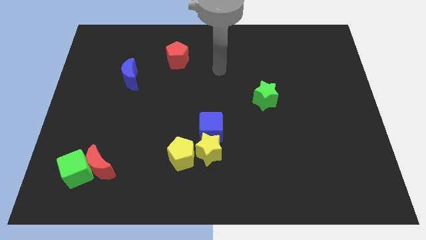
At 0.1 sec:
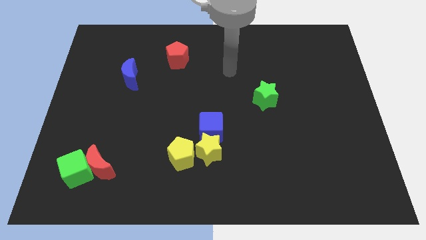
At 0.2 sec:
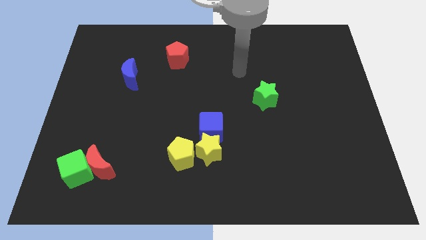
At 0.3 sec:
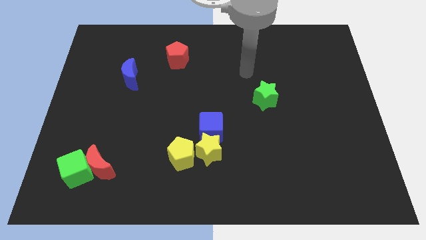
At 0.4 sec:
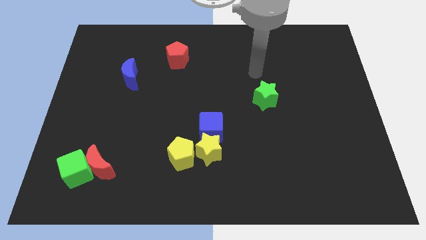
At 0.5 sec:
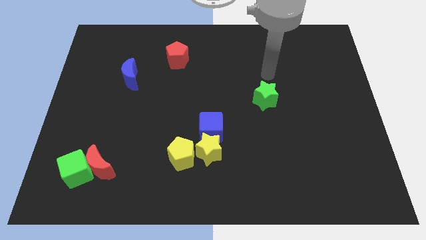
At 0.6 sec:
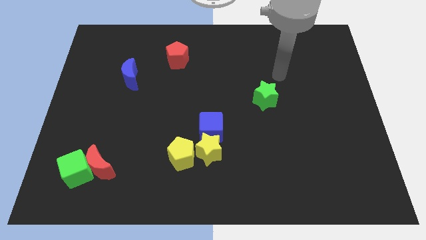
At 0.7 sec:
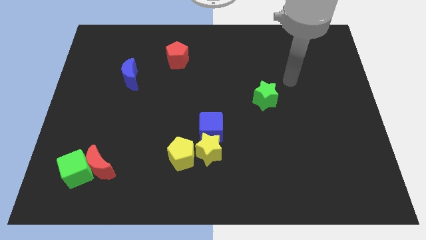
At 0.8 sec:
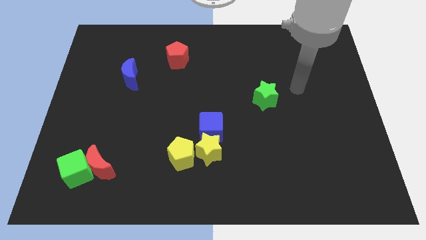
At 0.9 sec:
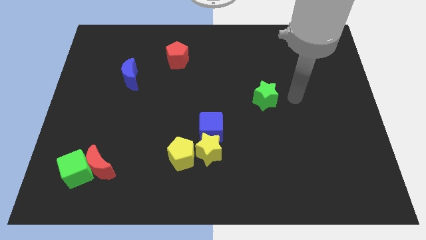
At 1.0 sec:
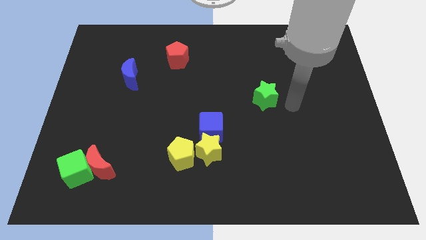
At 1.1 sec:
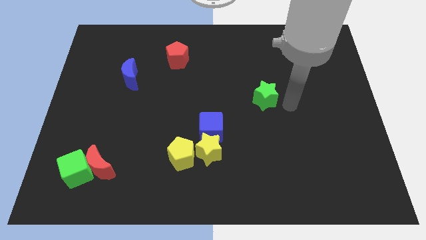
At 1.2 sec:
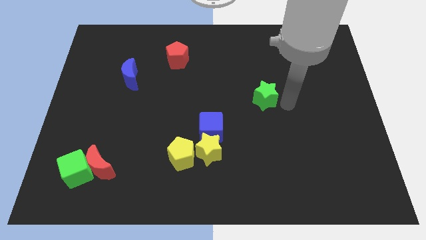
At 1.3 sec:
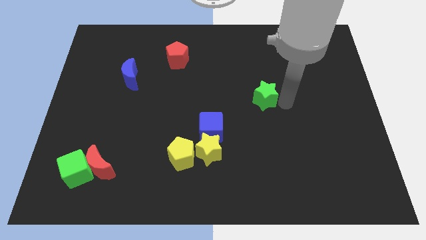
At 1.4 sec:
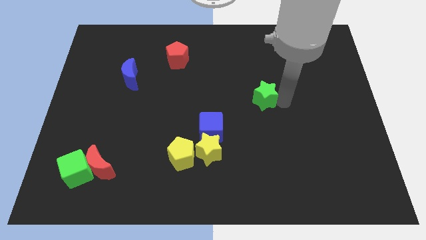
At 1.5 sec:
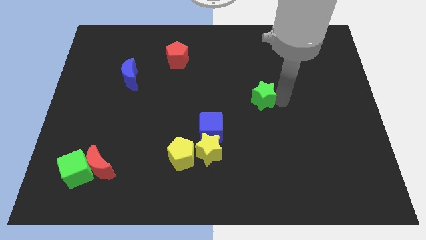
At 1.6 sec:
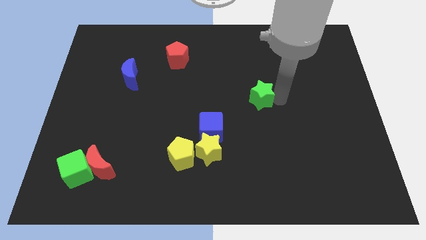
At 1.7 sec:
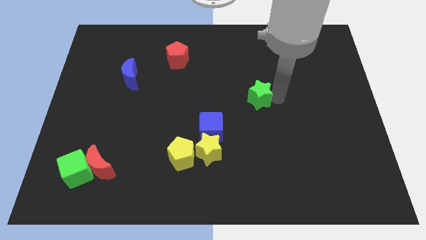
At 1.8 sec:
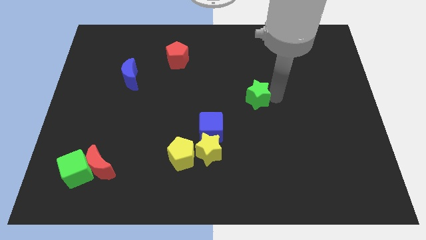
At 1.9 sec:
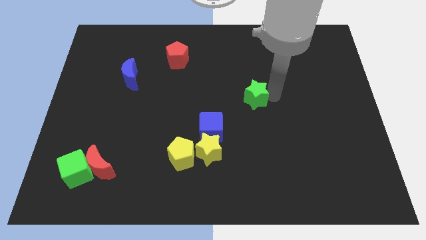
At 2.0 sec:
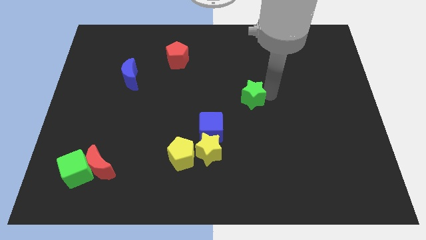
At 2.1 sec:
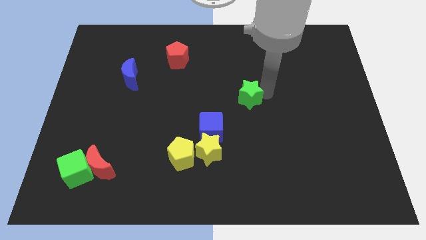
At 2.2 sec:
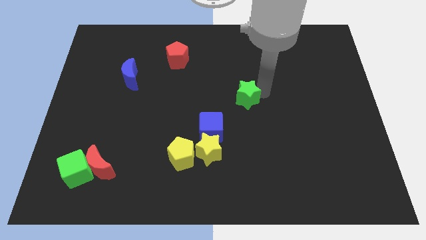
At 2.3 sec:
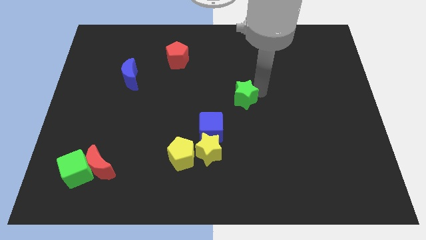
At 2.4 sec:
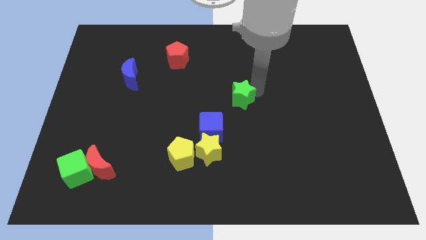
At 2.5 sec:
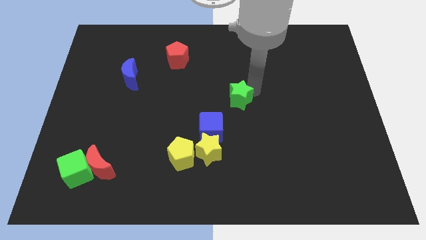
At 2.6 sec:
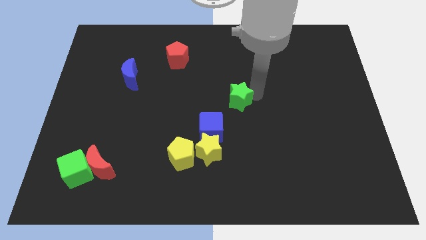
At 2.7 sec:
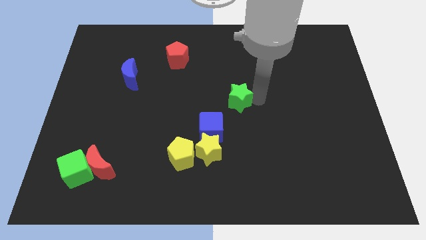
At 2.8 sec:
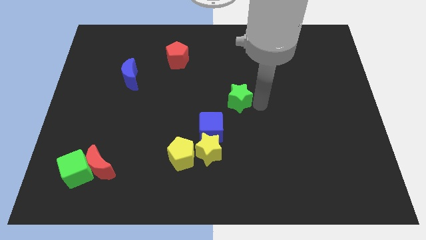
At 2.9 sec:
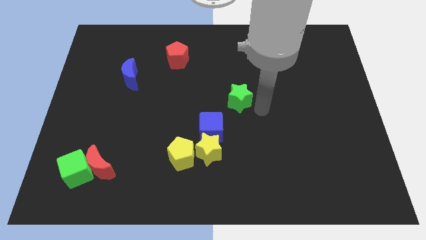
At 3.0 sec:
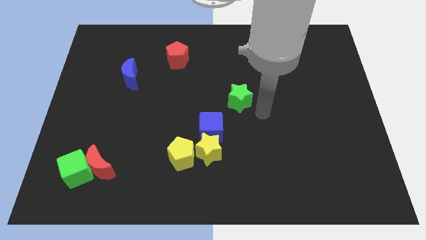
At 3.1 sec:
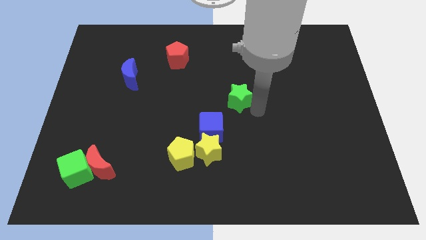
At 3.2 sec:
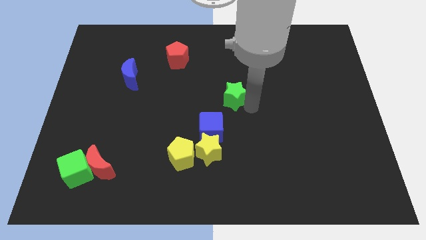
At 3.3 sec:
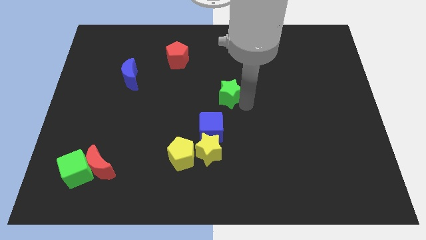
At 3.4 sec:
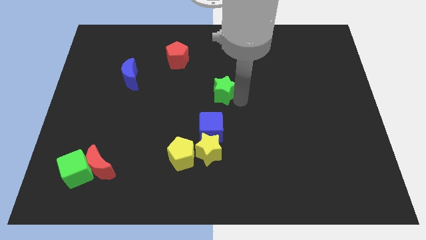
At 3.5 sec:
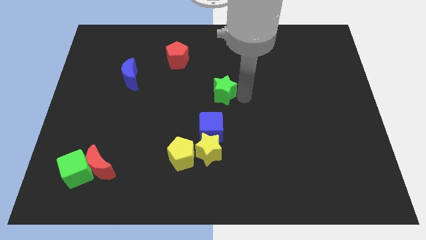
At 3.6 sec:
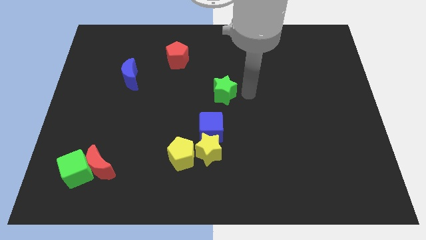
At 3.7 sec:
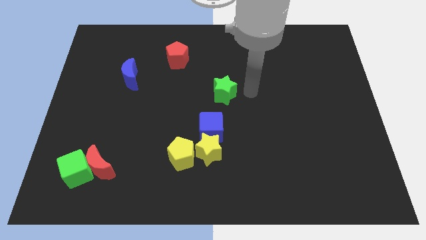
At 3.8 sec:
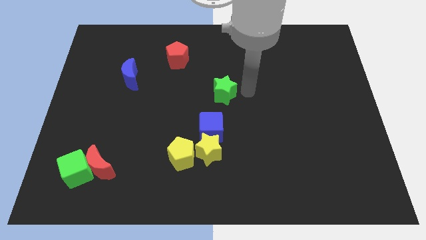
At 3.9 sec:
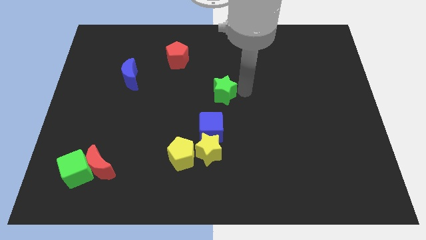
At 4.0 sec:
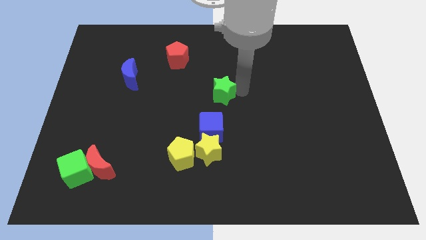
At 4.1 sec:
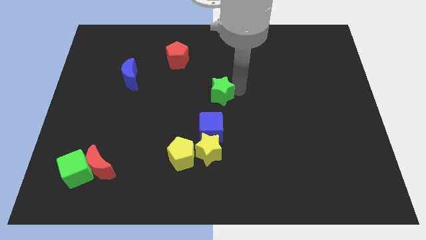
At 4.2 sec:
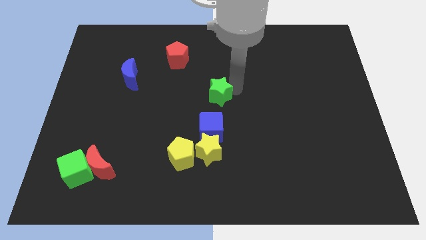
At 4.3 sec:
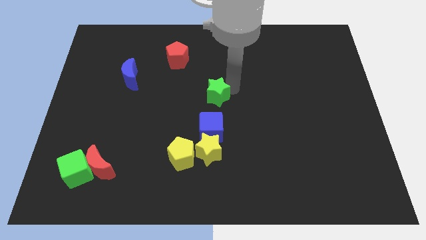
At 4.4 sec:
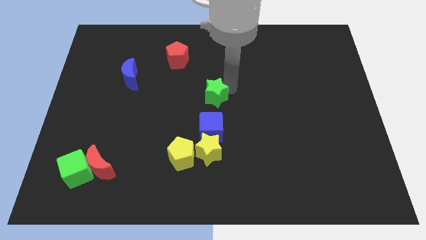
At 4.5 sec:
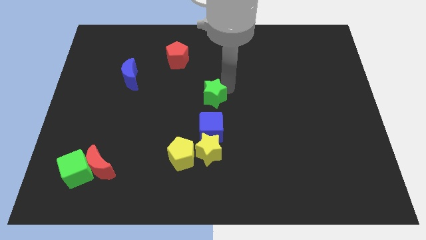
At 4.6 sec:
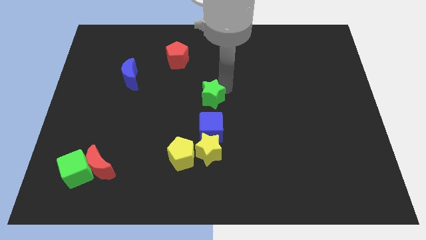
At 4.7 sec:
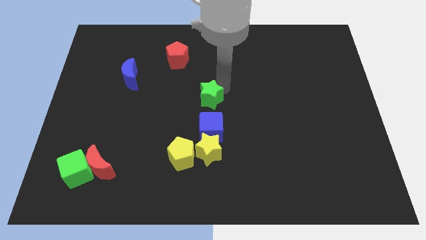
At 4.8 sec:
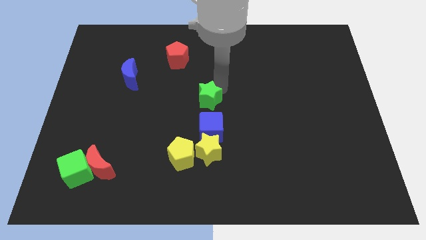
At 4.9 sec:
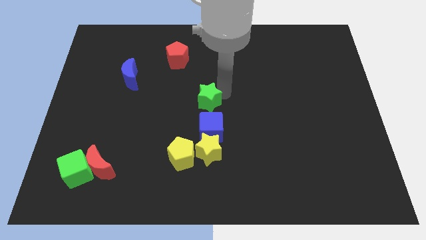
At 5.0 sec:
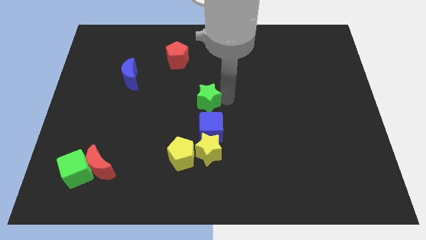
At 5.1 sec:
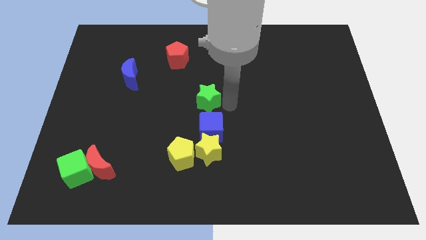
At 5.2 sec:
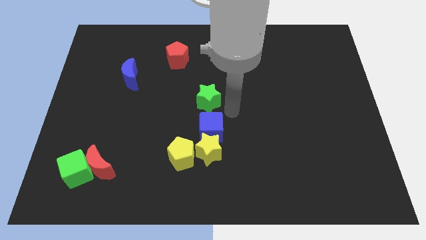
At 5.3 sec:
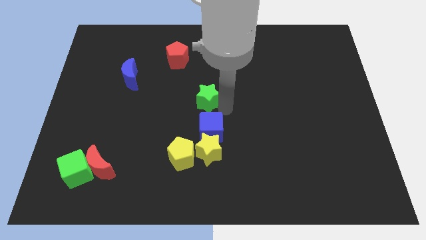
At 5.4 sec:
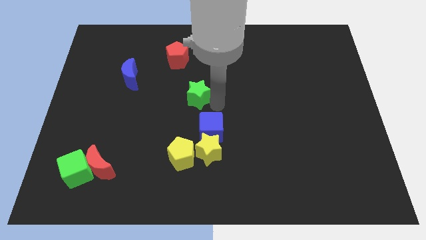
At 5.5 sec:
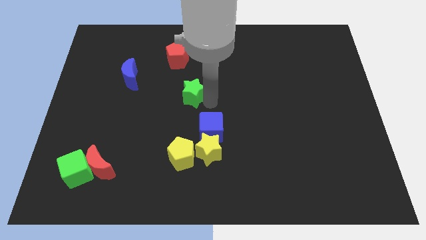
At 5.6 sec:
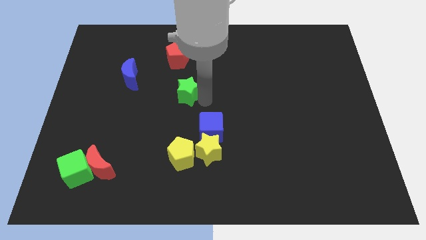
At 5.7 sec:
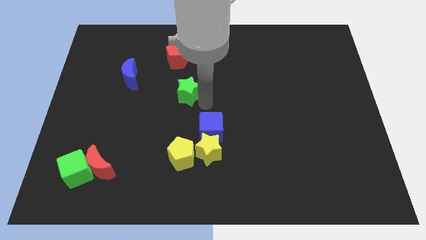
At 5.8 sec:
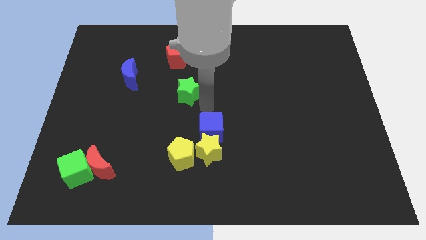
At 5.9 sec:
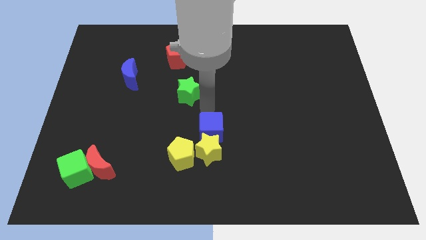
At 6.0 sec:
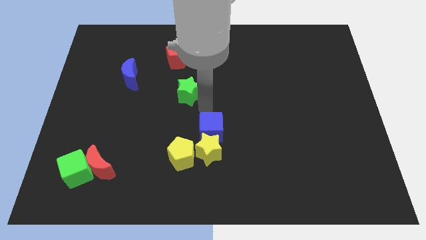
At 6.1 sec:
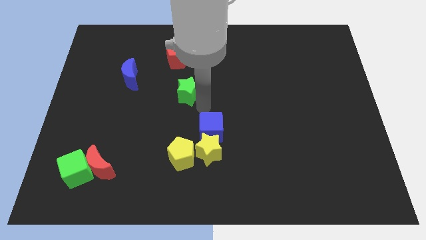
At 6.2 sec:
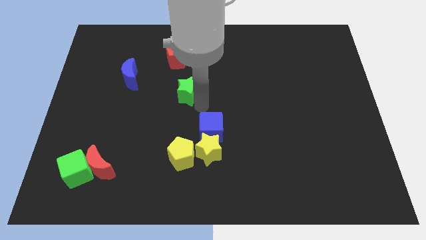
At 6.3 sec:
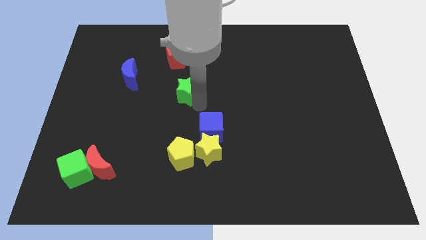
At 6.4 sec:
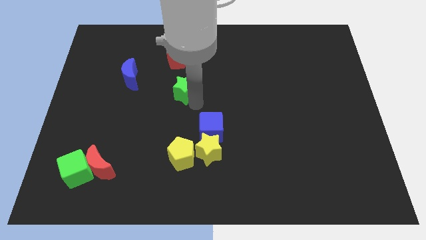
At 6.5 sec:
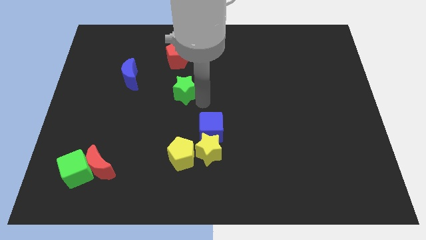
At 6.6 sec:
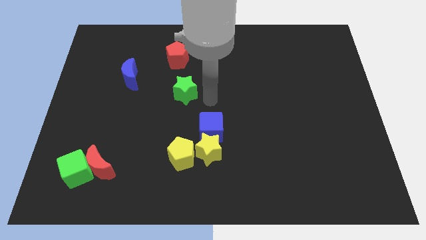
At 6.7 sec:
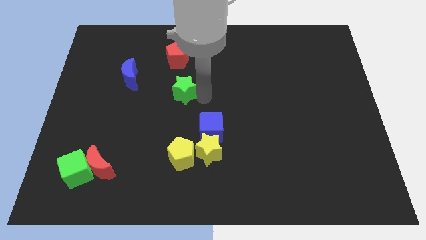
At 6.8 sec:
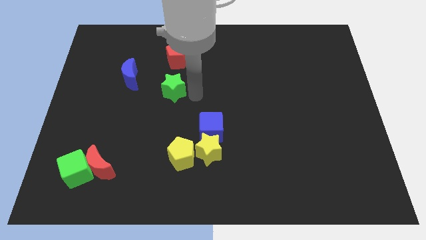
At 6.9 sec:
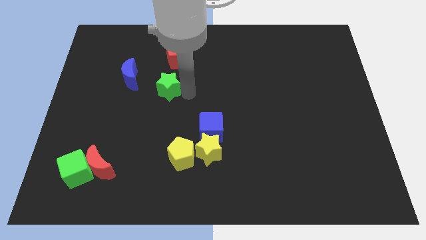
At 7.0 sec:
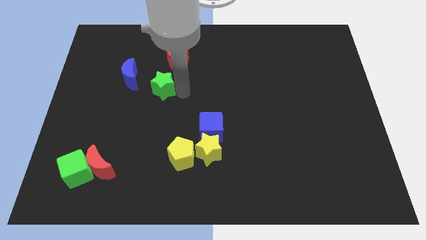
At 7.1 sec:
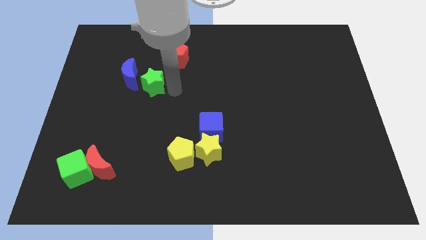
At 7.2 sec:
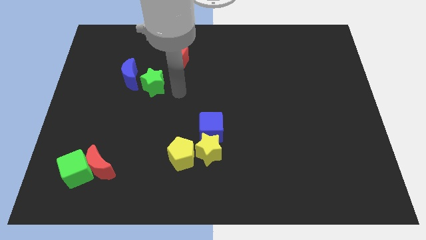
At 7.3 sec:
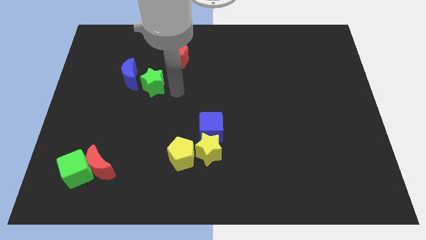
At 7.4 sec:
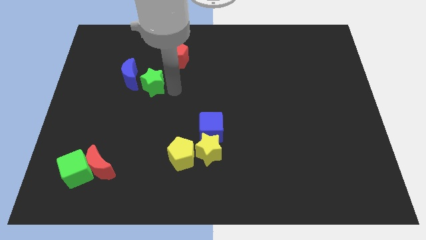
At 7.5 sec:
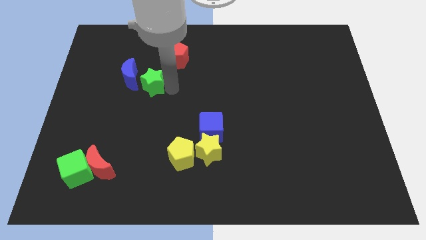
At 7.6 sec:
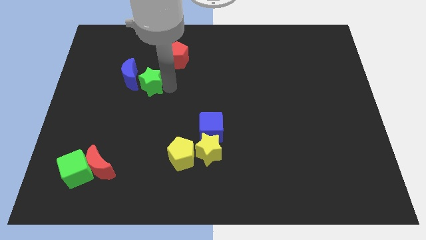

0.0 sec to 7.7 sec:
push the green star next to the blue moon

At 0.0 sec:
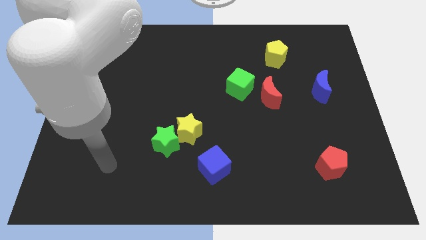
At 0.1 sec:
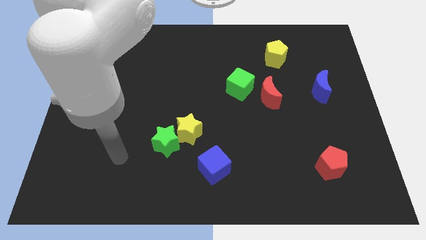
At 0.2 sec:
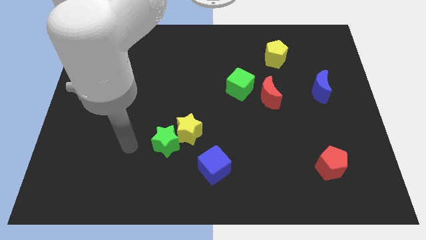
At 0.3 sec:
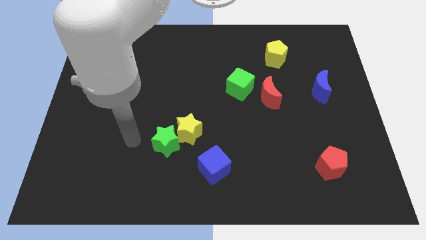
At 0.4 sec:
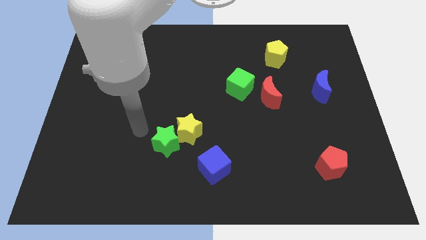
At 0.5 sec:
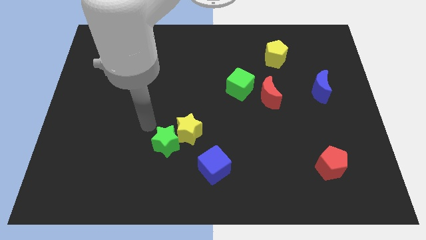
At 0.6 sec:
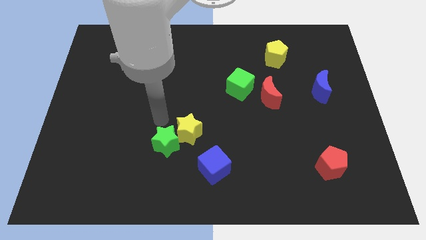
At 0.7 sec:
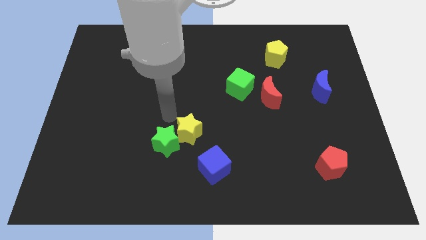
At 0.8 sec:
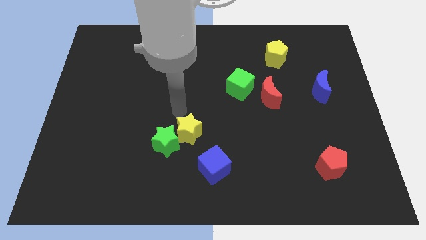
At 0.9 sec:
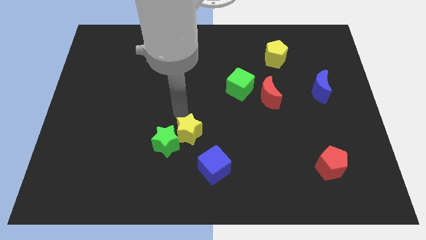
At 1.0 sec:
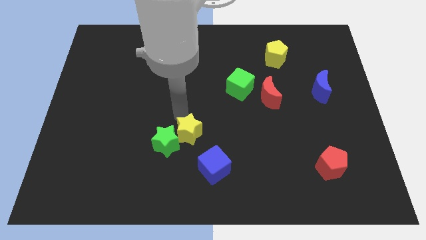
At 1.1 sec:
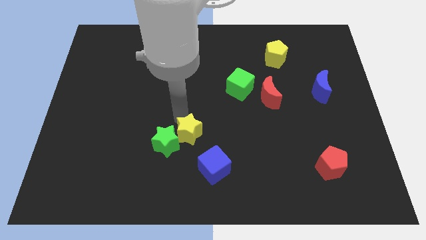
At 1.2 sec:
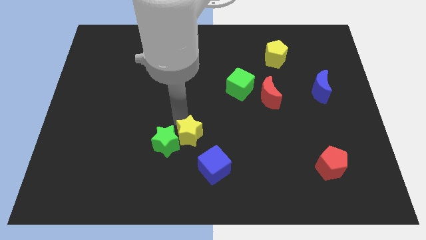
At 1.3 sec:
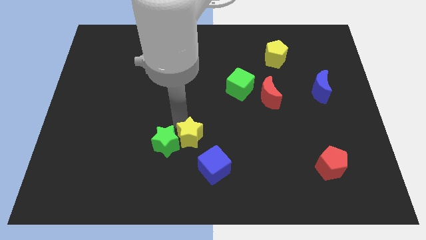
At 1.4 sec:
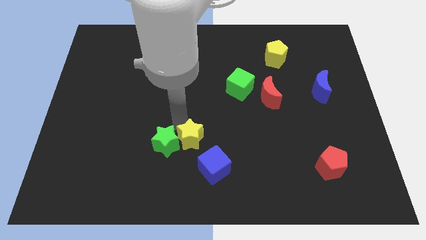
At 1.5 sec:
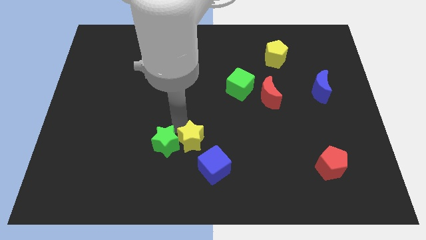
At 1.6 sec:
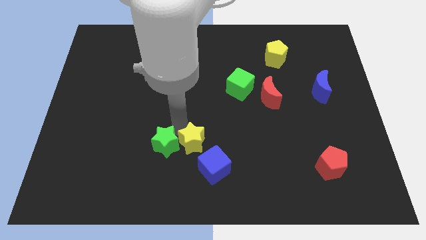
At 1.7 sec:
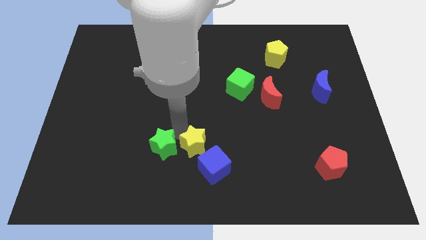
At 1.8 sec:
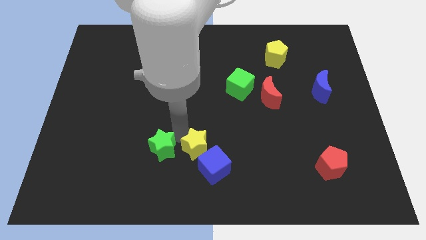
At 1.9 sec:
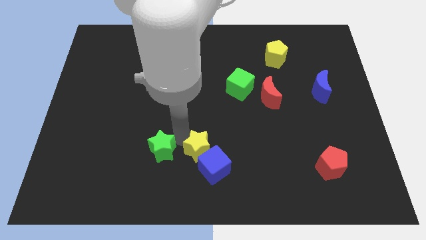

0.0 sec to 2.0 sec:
push the yellow star towards the blue cube
